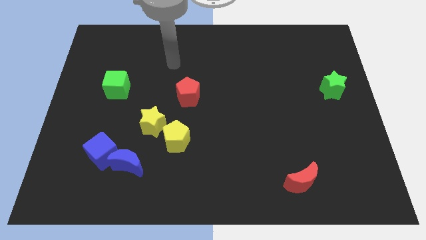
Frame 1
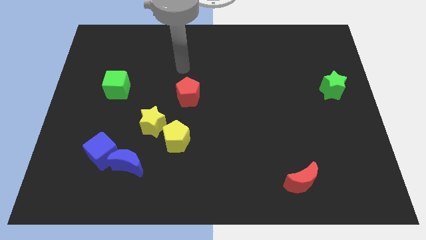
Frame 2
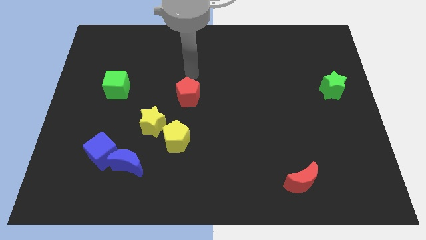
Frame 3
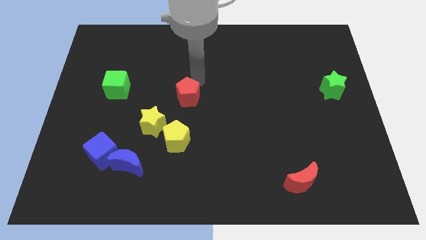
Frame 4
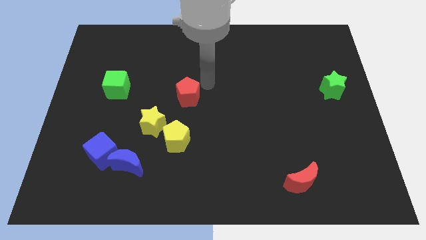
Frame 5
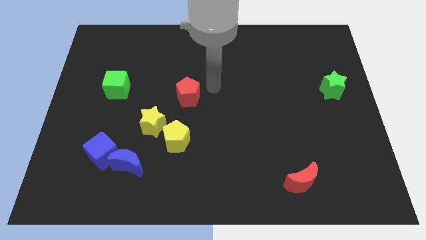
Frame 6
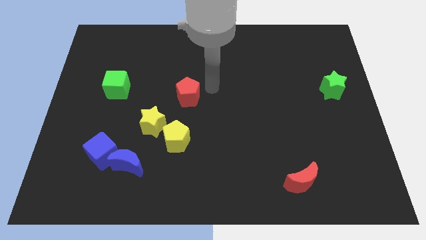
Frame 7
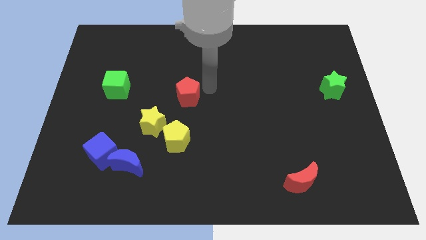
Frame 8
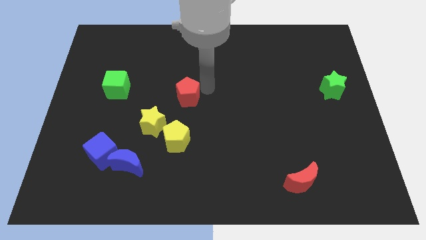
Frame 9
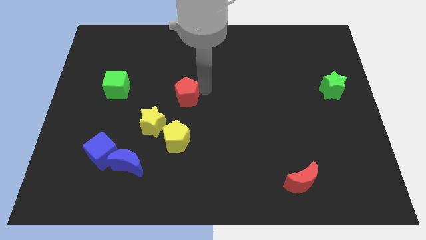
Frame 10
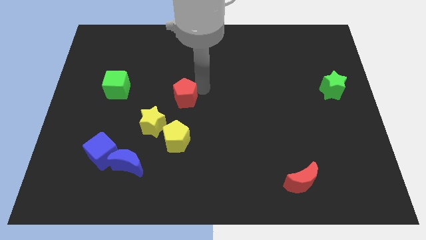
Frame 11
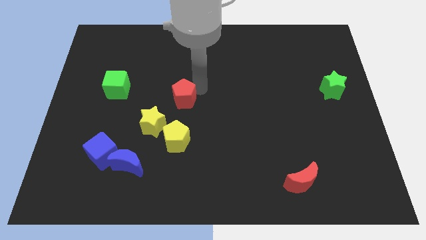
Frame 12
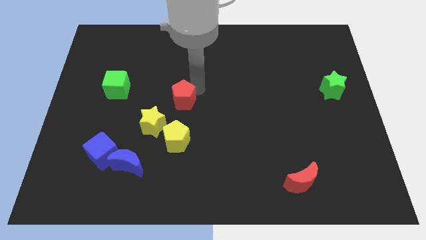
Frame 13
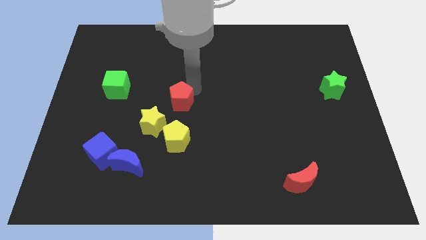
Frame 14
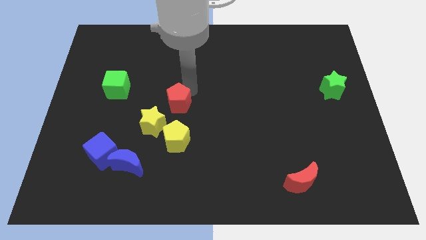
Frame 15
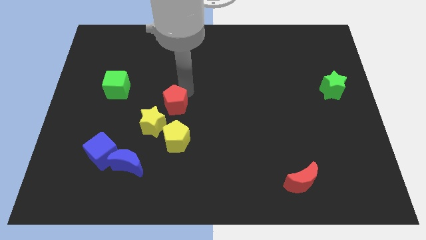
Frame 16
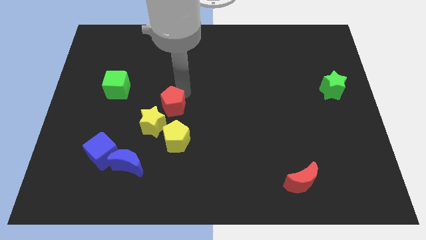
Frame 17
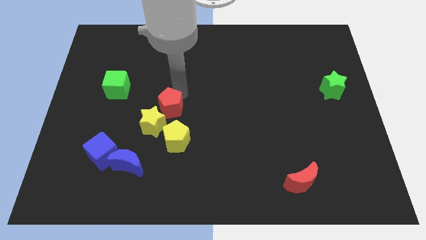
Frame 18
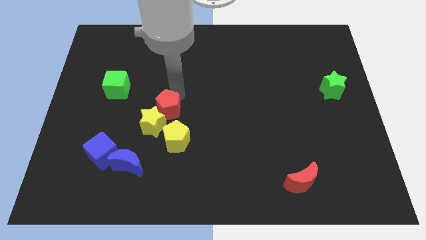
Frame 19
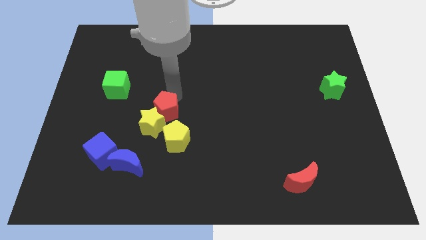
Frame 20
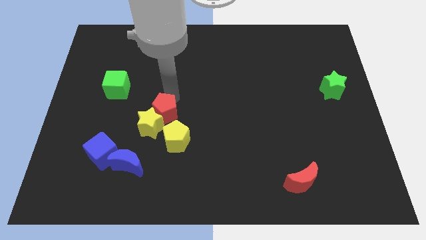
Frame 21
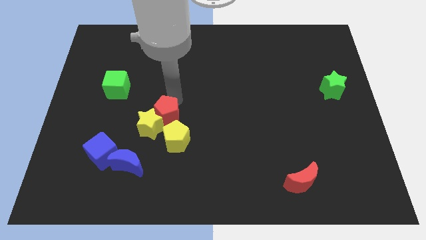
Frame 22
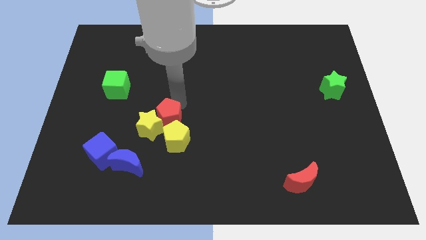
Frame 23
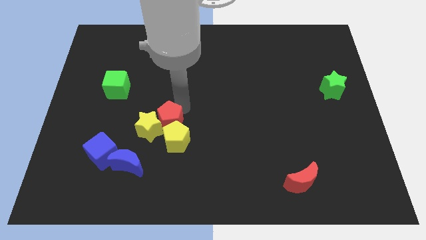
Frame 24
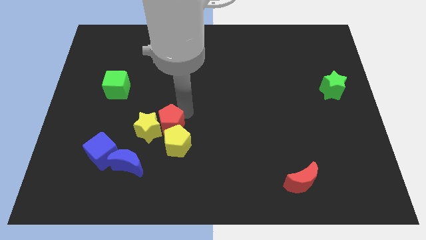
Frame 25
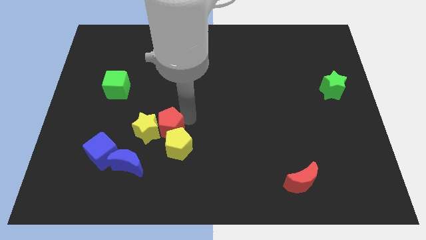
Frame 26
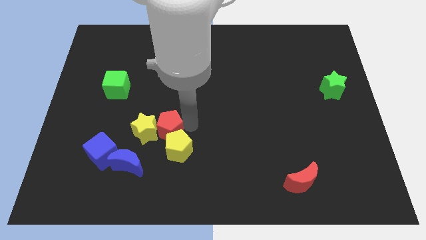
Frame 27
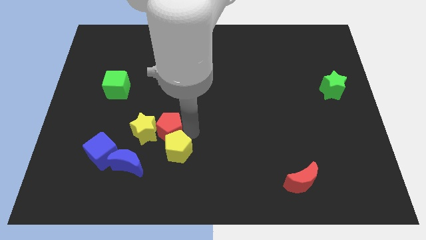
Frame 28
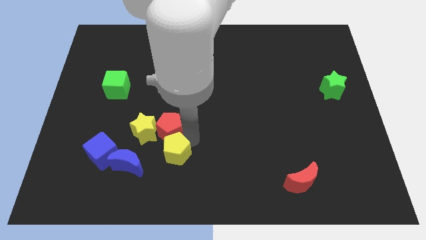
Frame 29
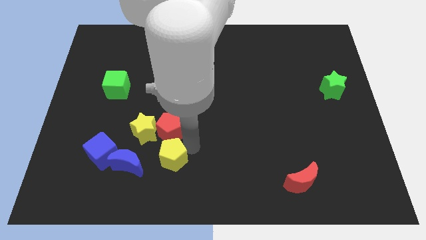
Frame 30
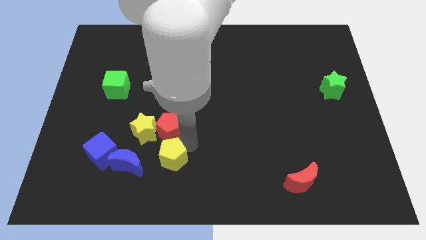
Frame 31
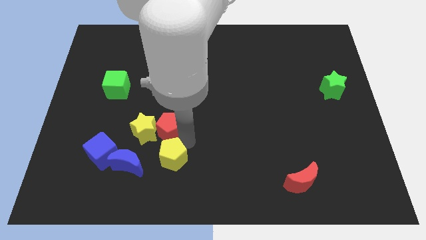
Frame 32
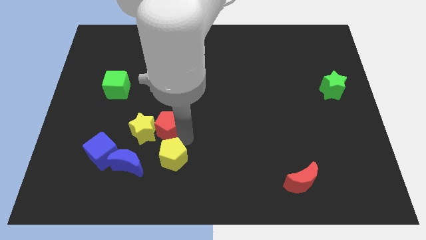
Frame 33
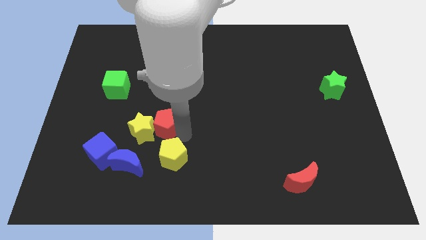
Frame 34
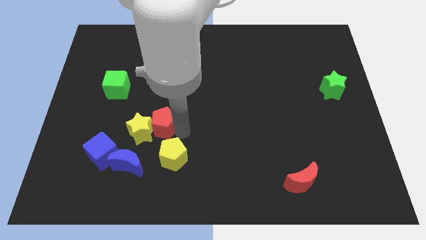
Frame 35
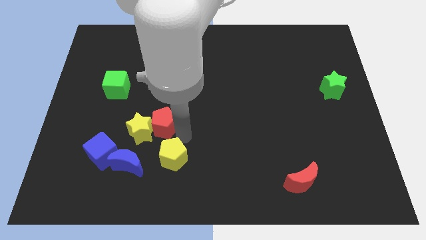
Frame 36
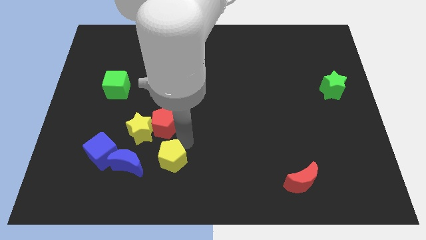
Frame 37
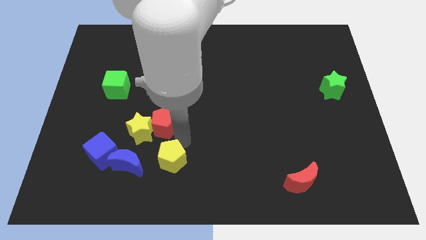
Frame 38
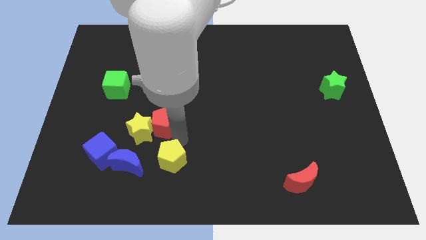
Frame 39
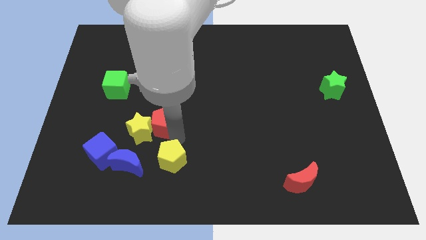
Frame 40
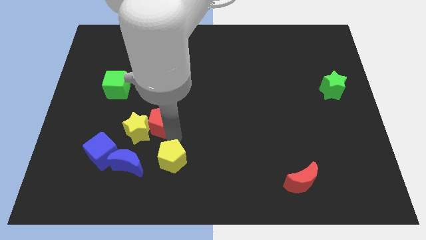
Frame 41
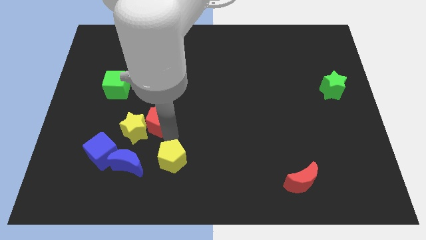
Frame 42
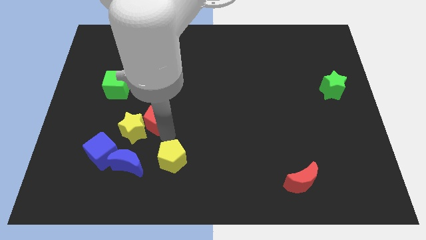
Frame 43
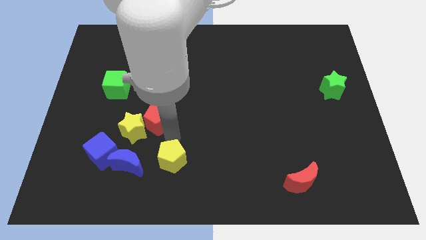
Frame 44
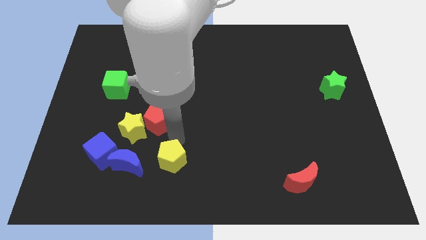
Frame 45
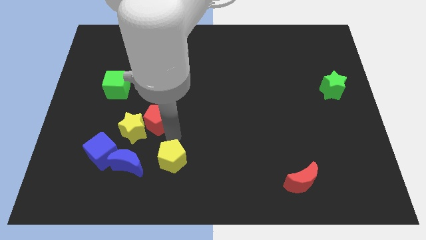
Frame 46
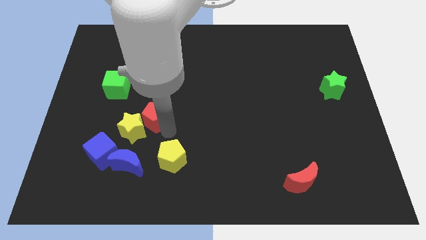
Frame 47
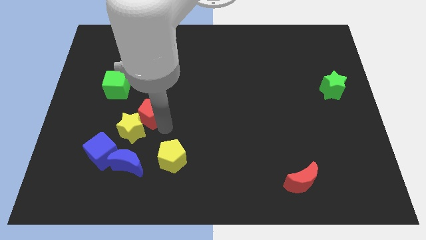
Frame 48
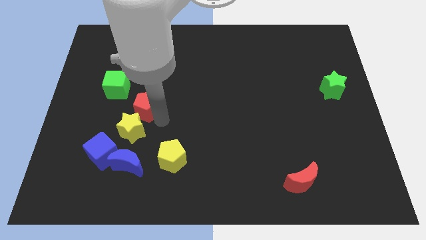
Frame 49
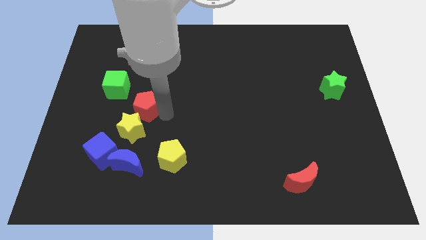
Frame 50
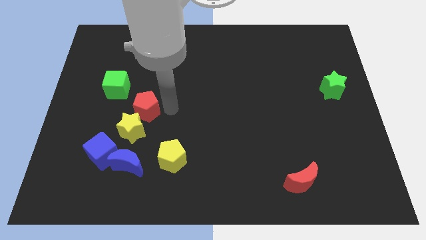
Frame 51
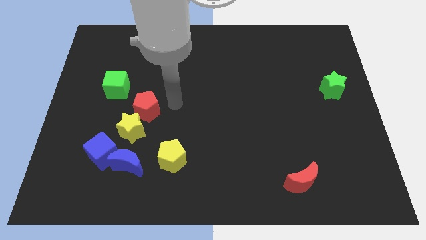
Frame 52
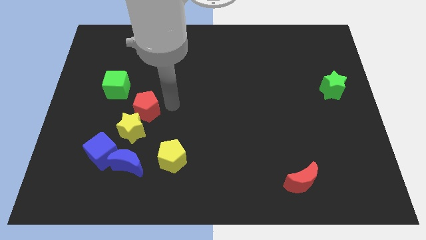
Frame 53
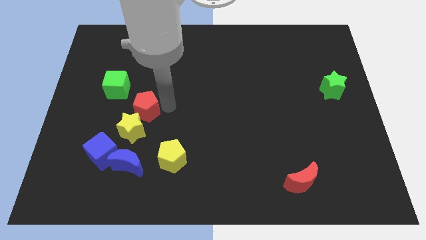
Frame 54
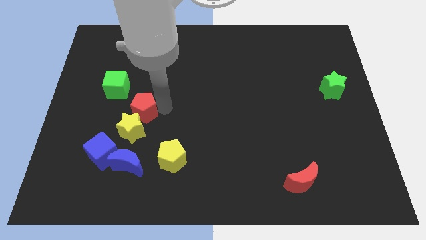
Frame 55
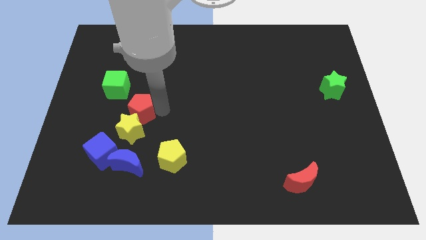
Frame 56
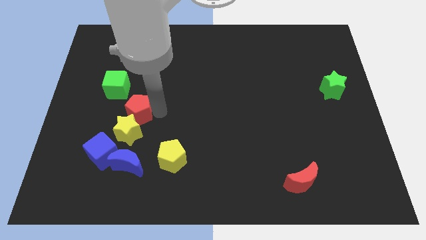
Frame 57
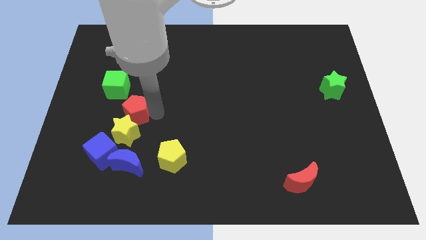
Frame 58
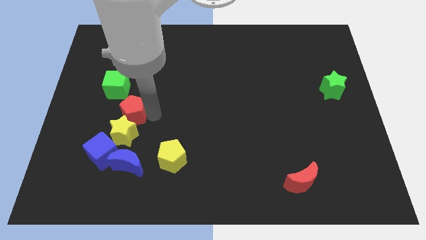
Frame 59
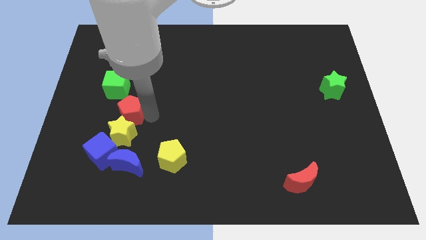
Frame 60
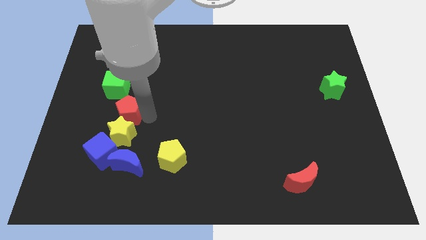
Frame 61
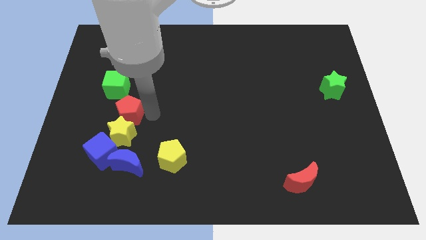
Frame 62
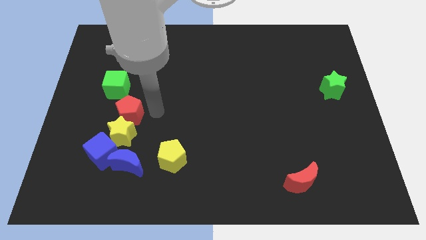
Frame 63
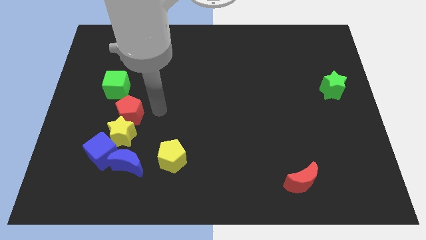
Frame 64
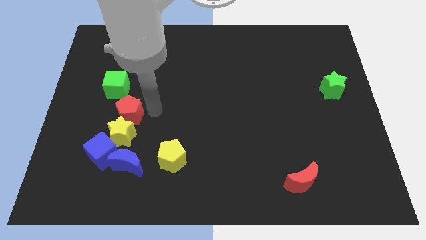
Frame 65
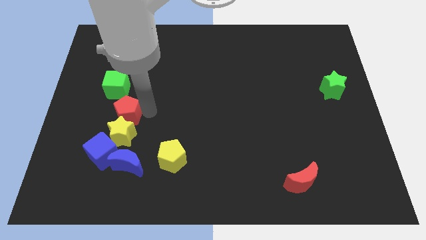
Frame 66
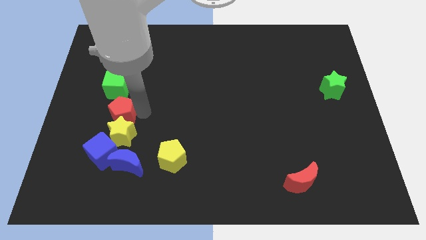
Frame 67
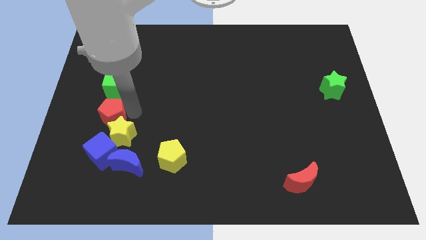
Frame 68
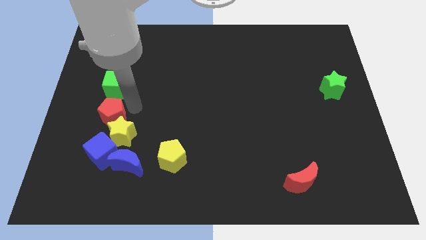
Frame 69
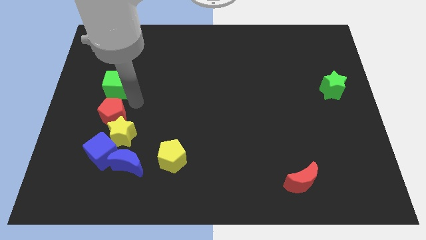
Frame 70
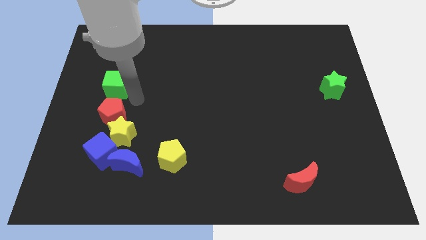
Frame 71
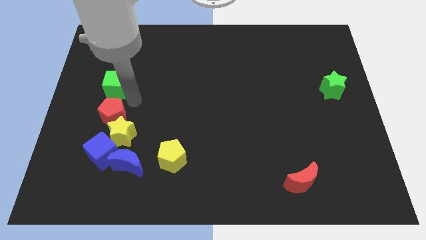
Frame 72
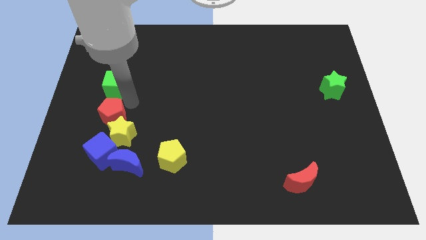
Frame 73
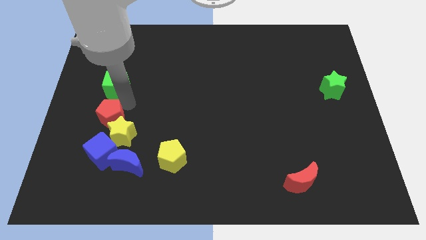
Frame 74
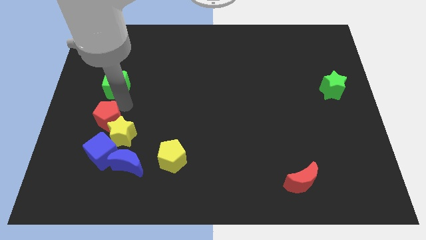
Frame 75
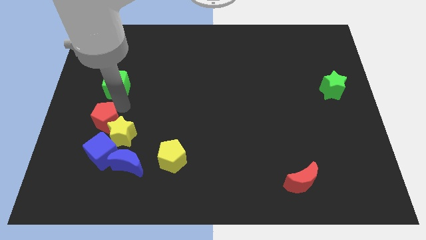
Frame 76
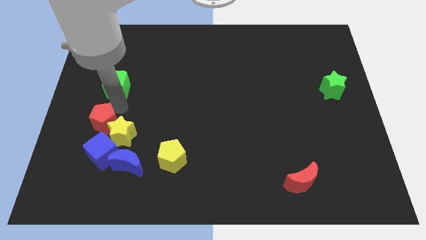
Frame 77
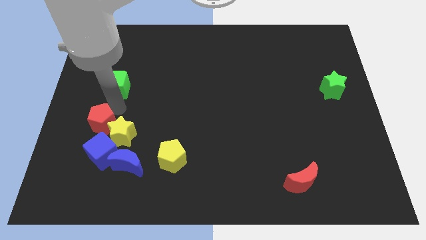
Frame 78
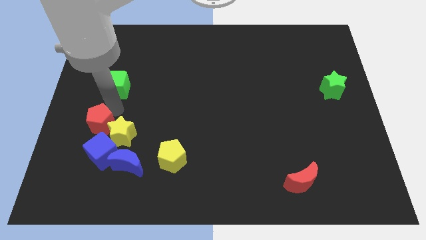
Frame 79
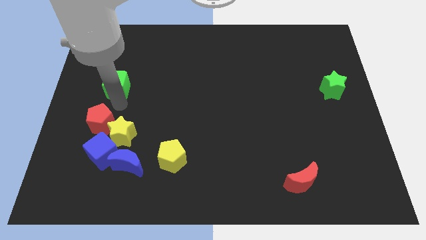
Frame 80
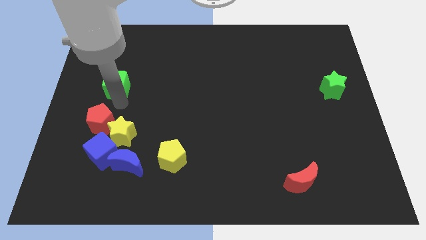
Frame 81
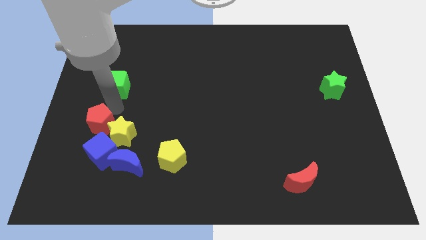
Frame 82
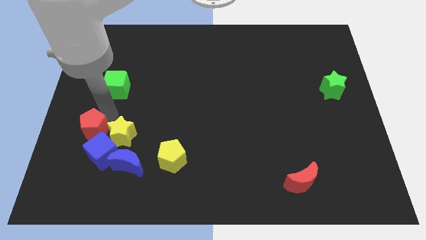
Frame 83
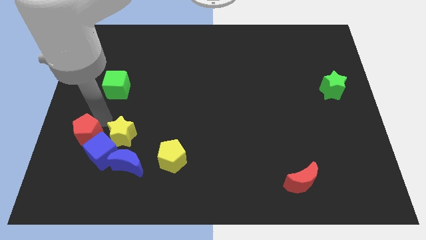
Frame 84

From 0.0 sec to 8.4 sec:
push the red pentagon diagonally down and left
